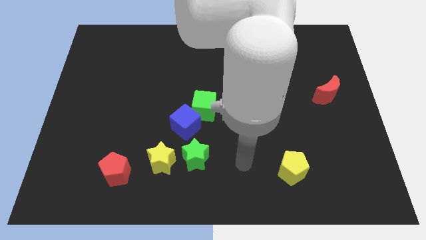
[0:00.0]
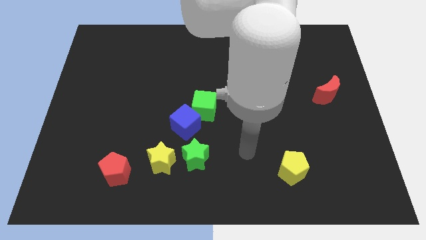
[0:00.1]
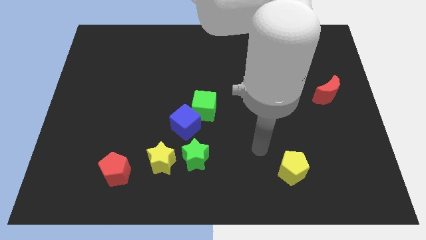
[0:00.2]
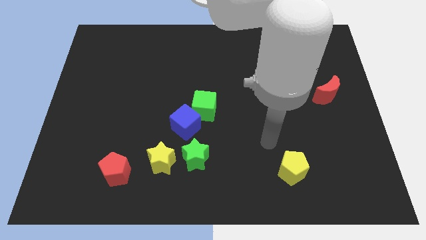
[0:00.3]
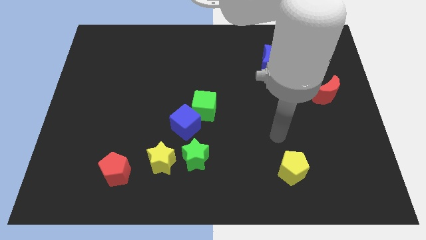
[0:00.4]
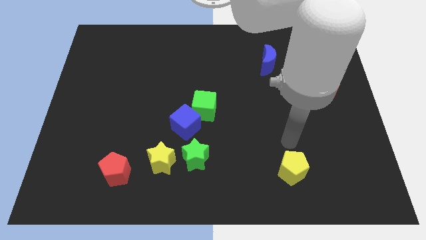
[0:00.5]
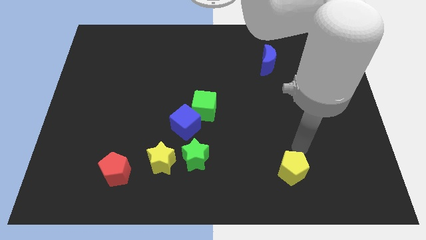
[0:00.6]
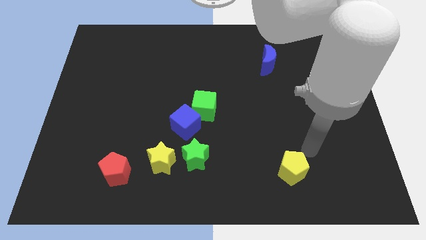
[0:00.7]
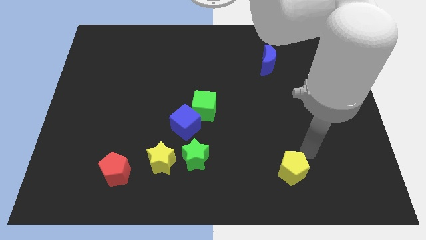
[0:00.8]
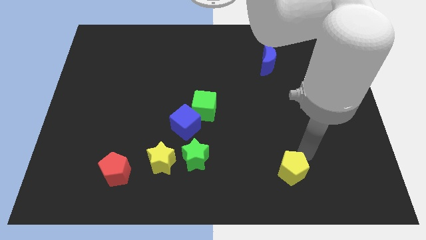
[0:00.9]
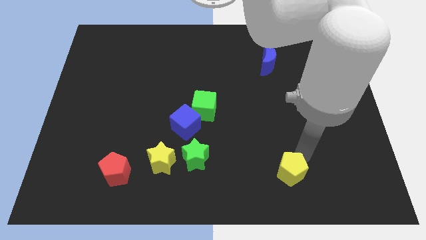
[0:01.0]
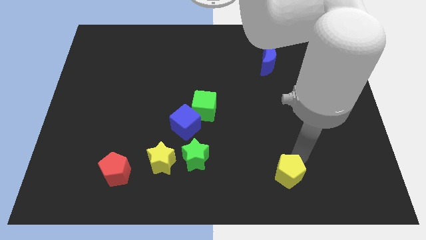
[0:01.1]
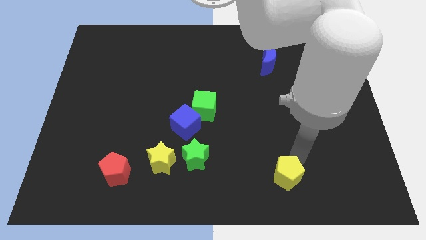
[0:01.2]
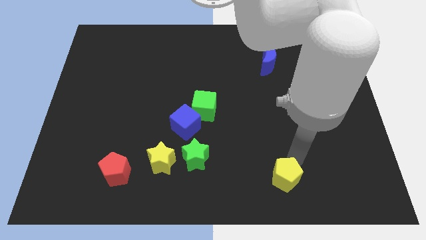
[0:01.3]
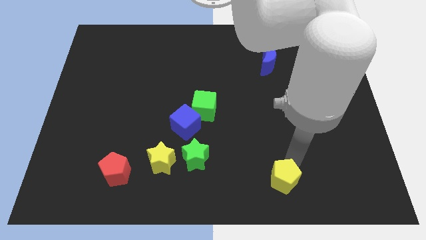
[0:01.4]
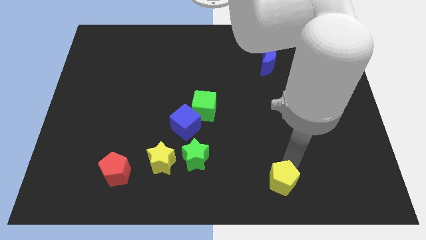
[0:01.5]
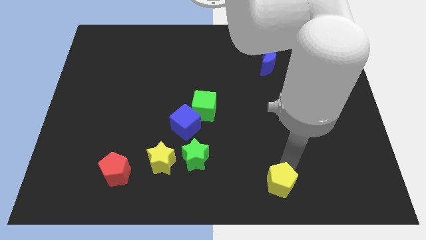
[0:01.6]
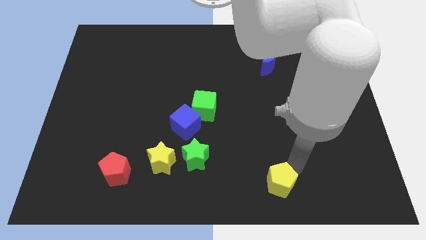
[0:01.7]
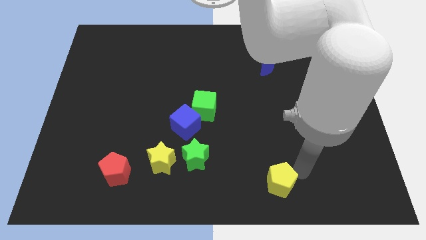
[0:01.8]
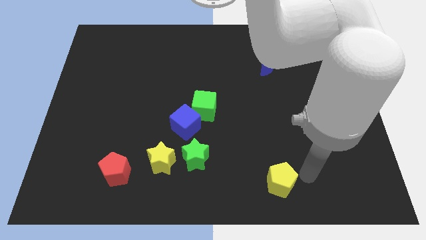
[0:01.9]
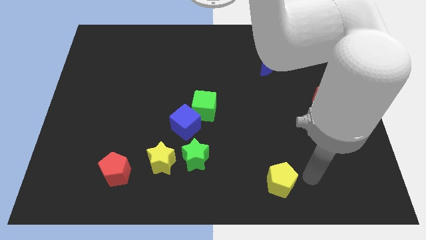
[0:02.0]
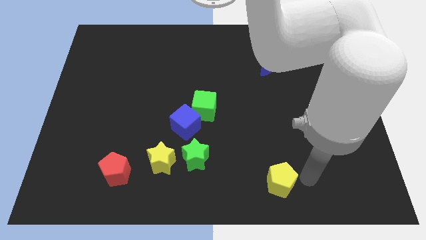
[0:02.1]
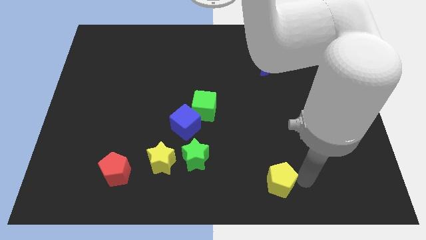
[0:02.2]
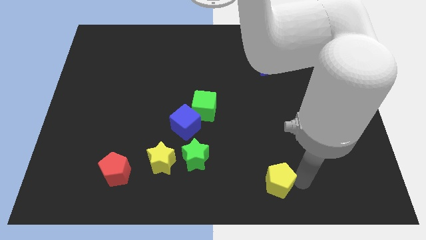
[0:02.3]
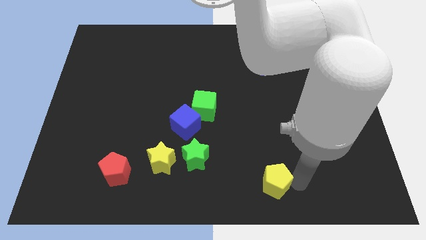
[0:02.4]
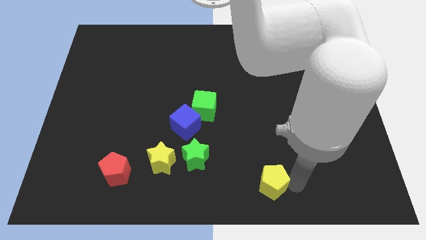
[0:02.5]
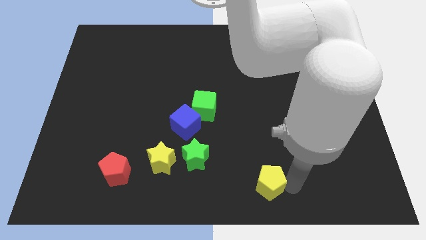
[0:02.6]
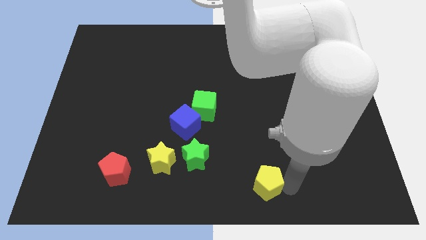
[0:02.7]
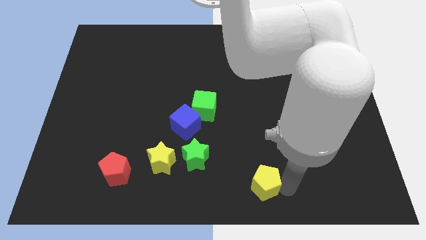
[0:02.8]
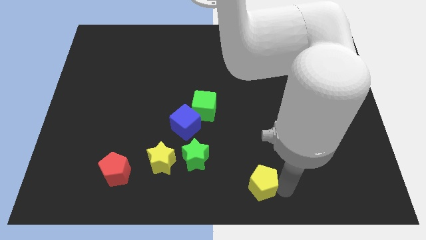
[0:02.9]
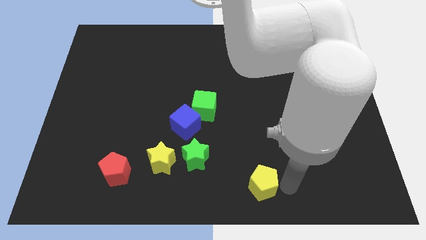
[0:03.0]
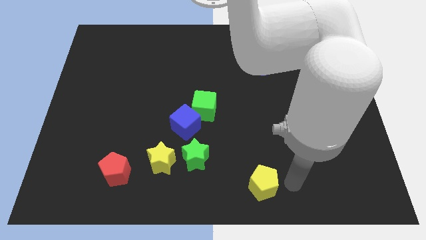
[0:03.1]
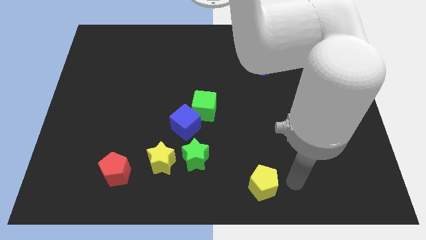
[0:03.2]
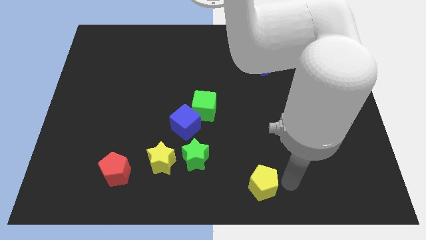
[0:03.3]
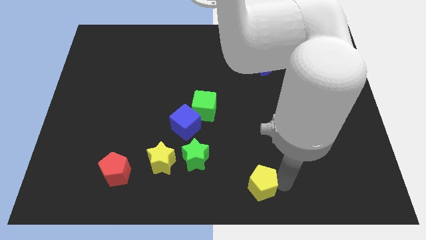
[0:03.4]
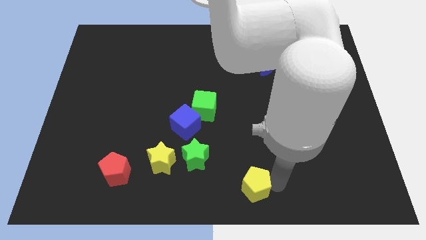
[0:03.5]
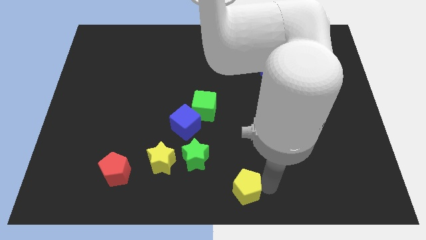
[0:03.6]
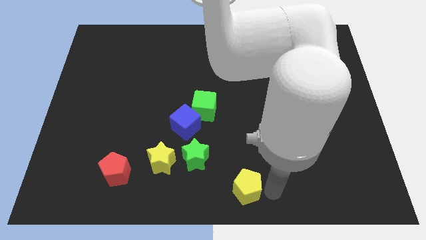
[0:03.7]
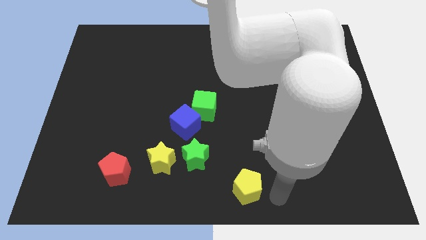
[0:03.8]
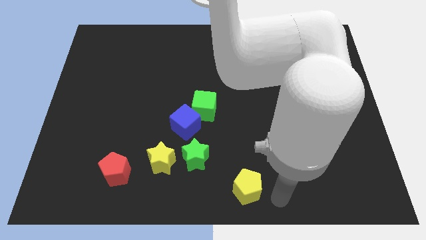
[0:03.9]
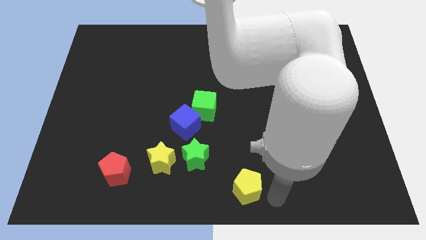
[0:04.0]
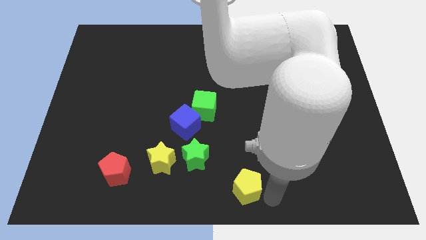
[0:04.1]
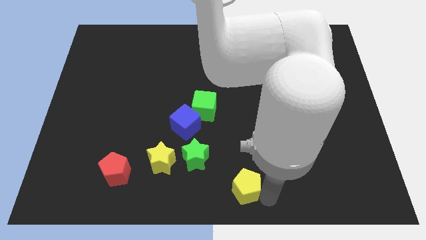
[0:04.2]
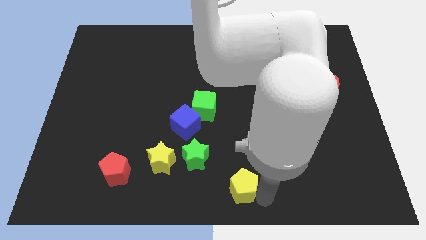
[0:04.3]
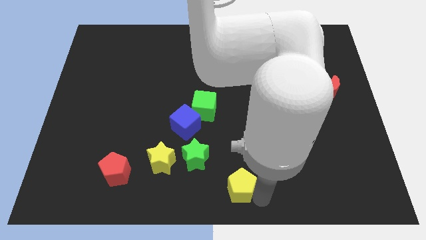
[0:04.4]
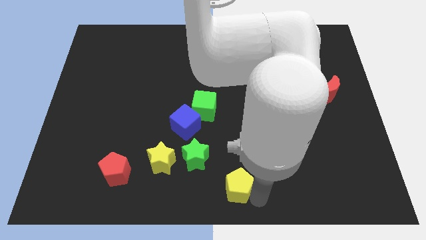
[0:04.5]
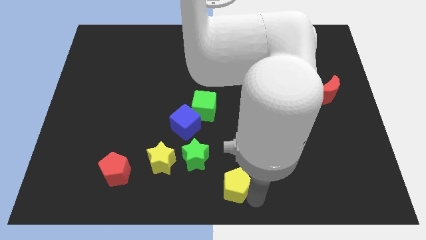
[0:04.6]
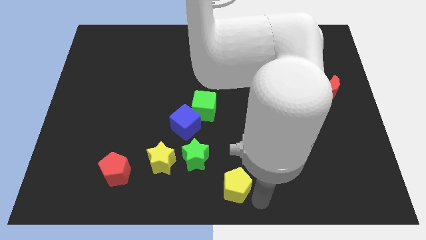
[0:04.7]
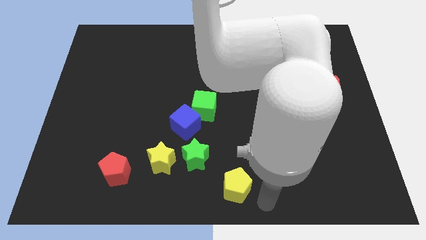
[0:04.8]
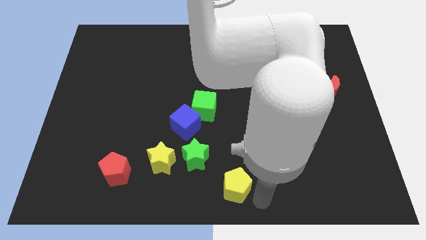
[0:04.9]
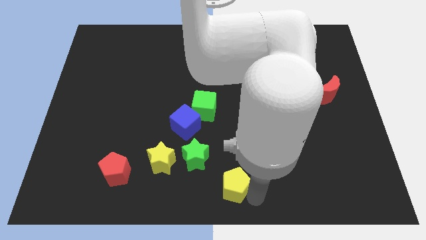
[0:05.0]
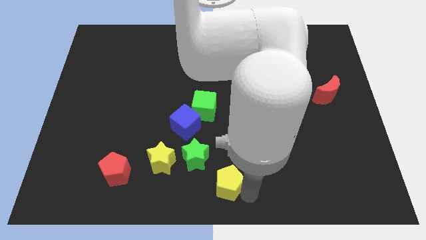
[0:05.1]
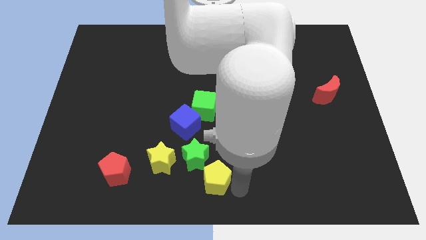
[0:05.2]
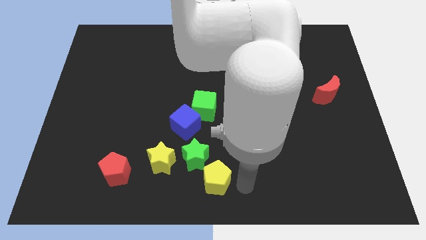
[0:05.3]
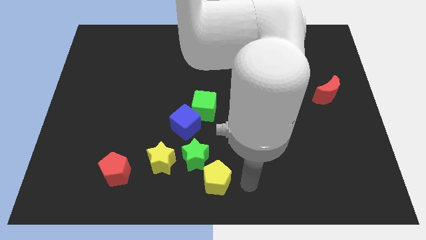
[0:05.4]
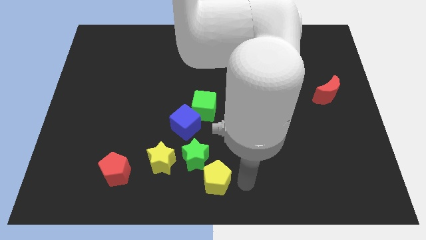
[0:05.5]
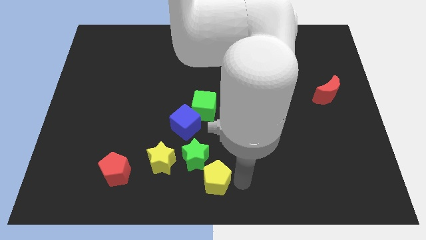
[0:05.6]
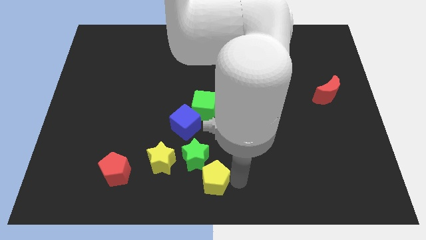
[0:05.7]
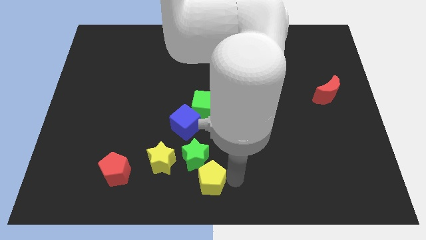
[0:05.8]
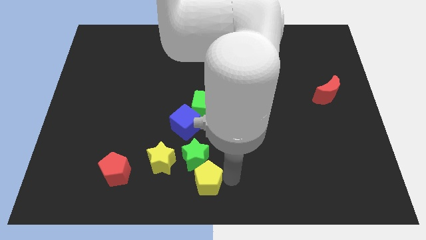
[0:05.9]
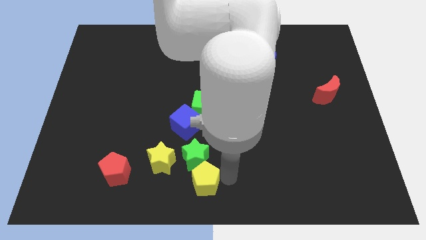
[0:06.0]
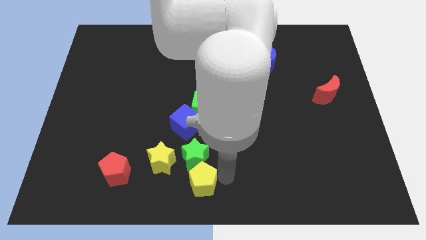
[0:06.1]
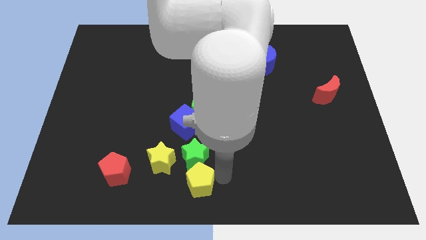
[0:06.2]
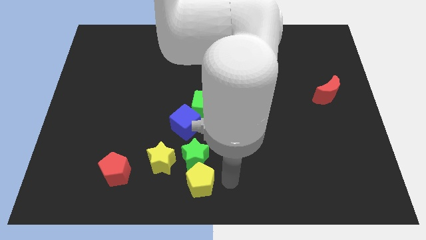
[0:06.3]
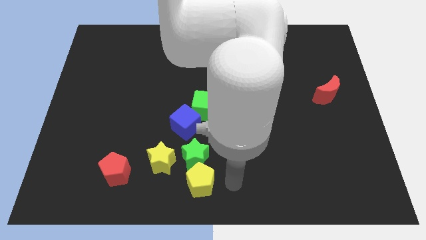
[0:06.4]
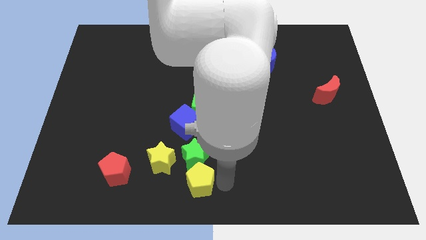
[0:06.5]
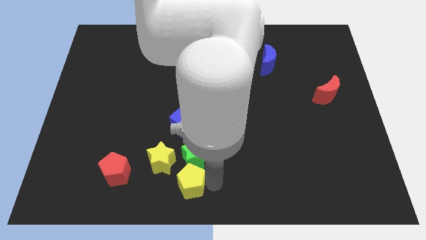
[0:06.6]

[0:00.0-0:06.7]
slide the yellow pentagon to the left

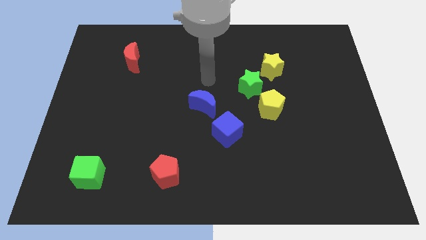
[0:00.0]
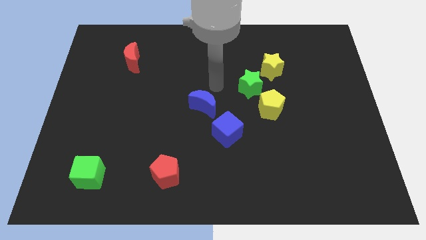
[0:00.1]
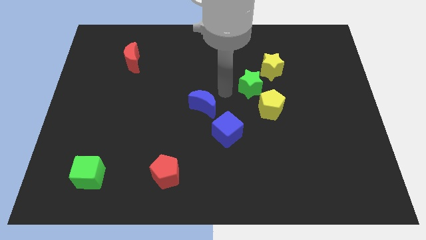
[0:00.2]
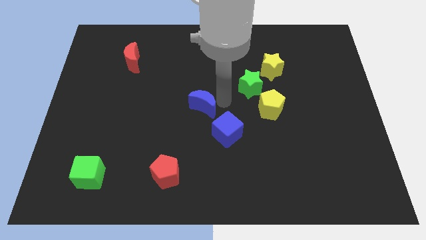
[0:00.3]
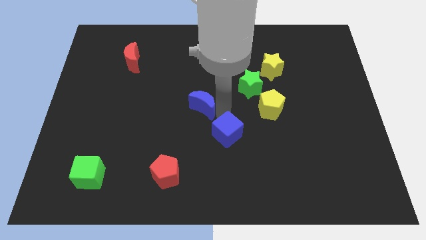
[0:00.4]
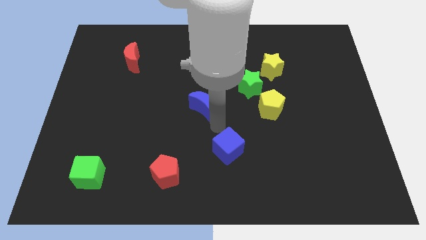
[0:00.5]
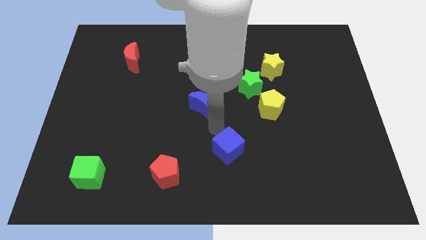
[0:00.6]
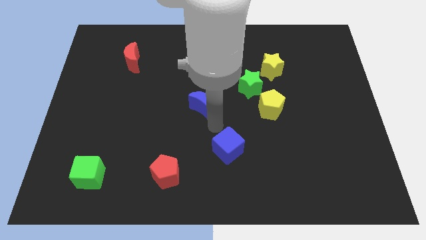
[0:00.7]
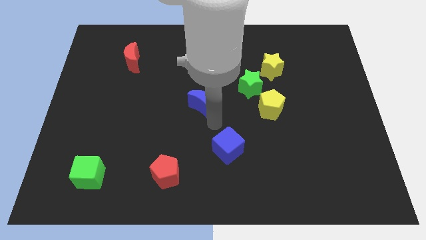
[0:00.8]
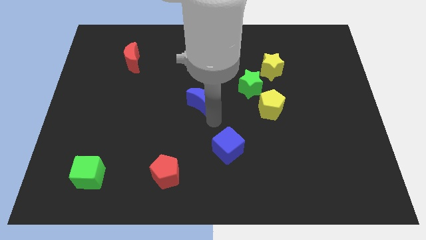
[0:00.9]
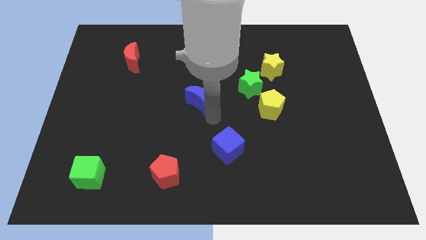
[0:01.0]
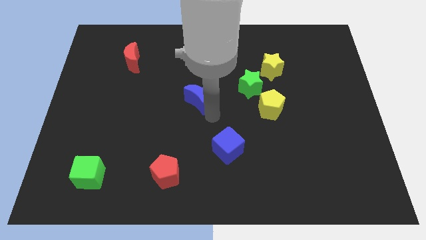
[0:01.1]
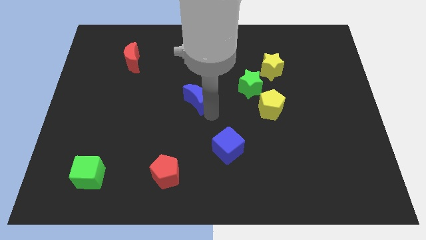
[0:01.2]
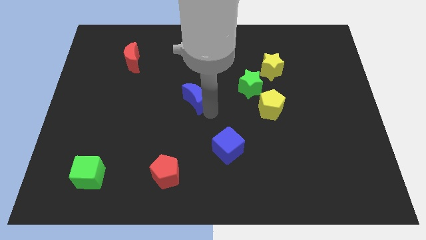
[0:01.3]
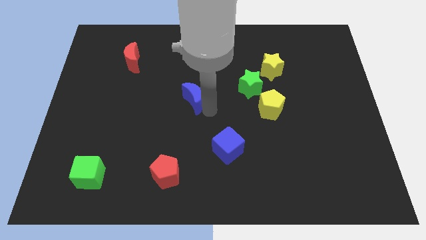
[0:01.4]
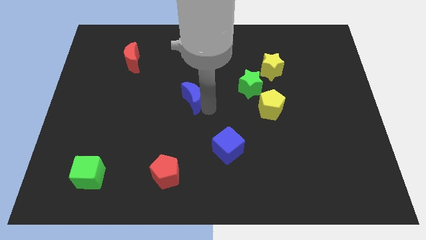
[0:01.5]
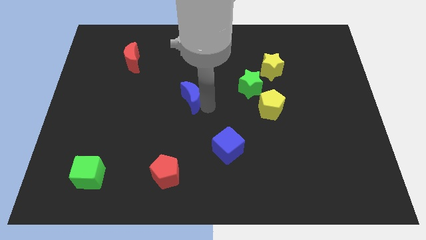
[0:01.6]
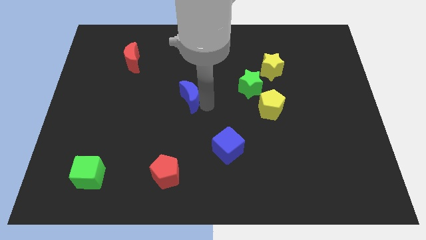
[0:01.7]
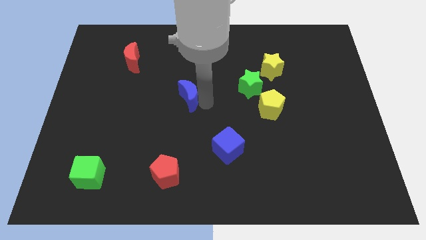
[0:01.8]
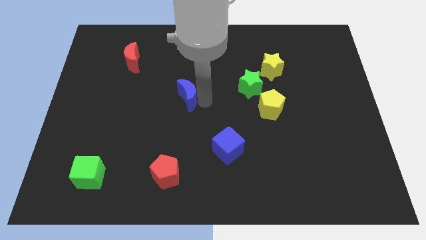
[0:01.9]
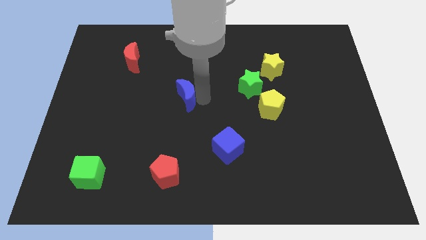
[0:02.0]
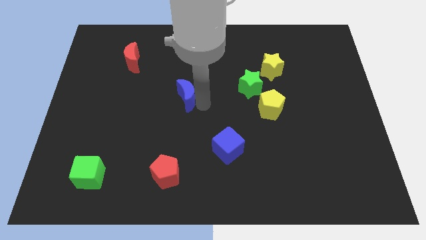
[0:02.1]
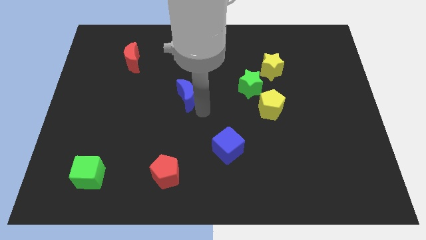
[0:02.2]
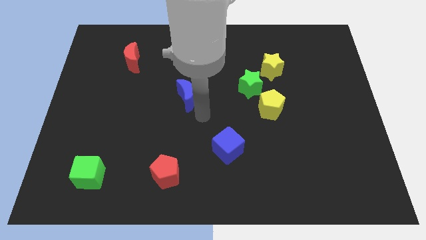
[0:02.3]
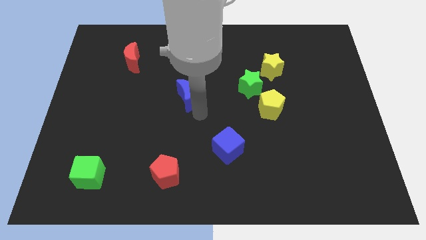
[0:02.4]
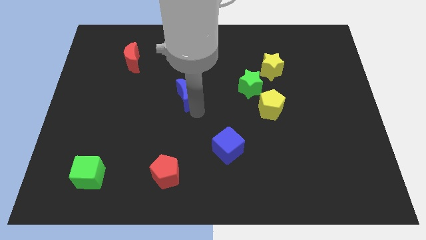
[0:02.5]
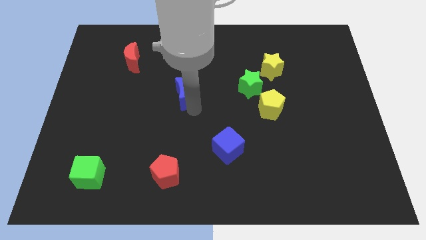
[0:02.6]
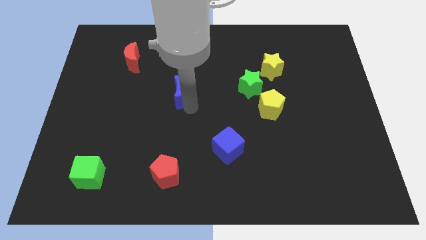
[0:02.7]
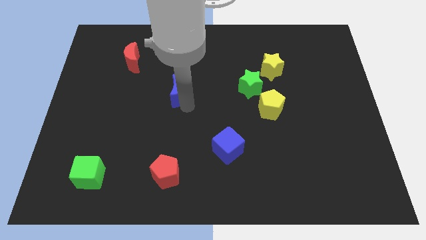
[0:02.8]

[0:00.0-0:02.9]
slightly slide the blue moon up and then to the left
